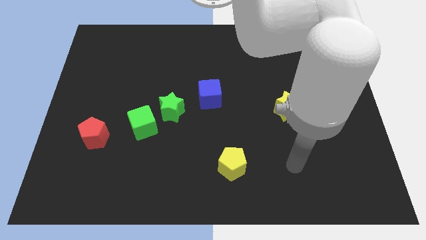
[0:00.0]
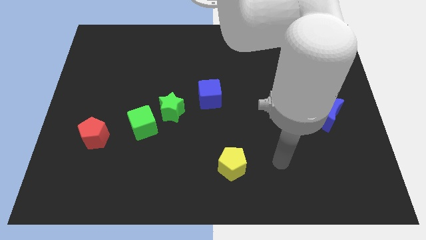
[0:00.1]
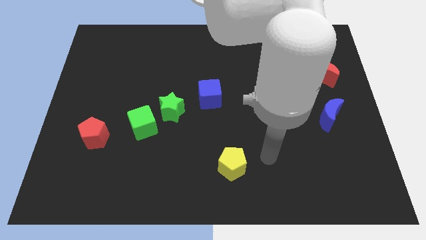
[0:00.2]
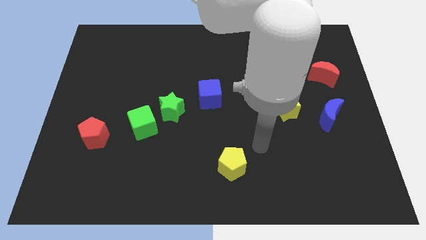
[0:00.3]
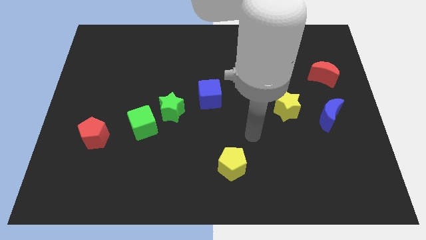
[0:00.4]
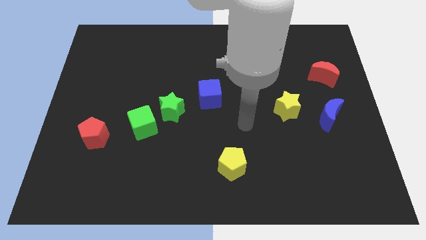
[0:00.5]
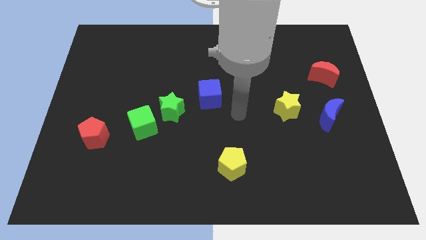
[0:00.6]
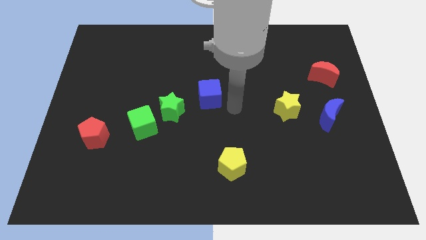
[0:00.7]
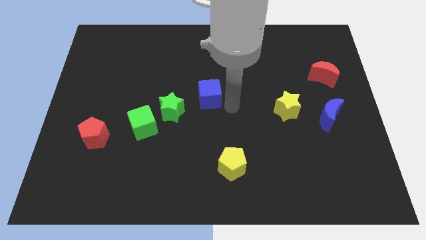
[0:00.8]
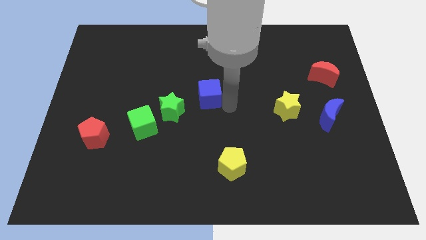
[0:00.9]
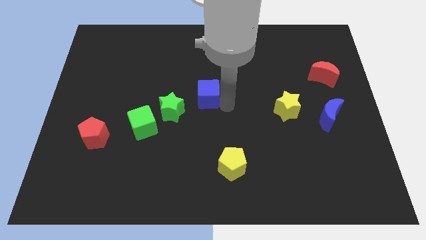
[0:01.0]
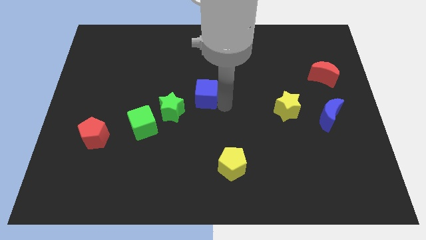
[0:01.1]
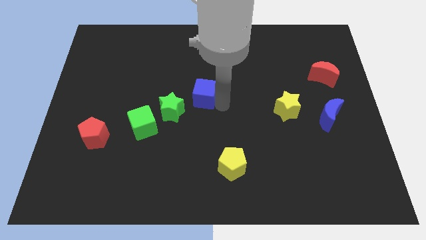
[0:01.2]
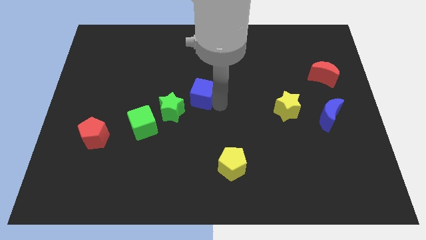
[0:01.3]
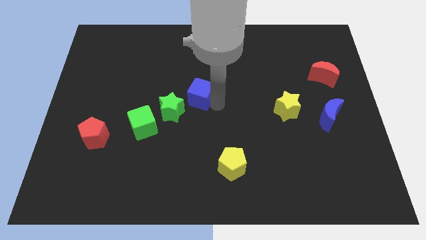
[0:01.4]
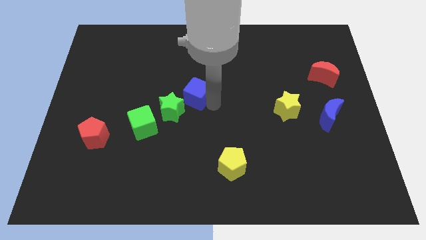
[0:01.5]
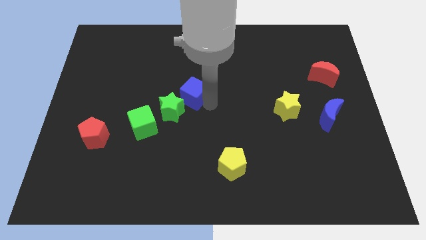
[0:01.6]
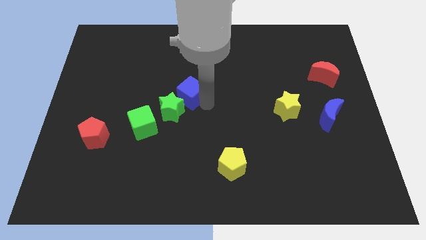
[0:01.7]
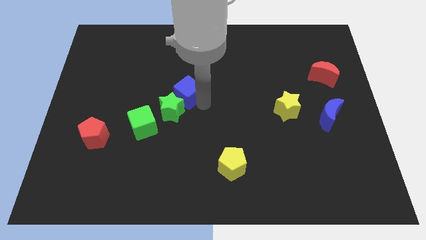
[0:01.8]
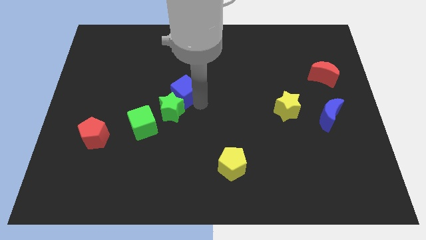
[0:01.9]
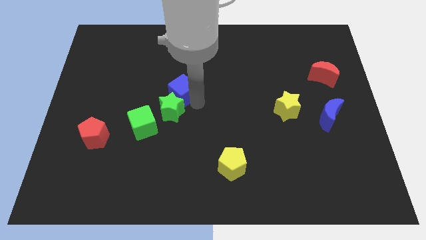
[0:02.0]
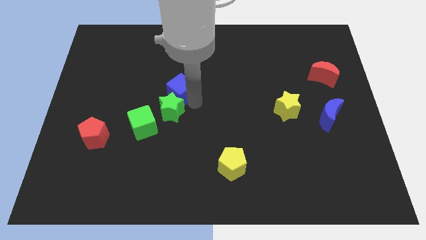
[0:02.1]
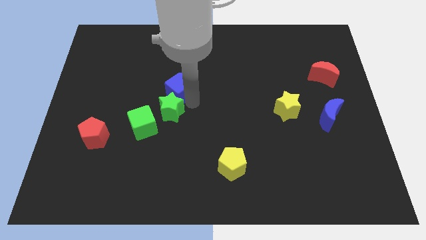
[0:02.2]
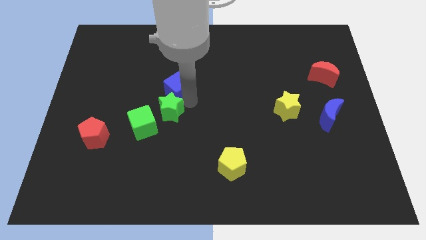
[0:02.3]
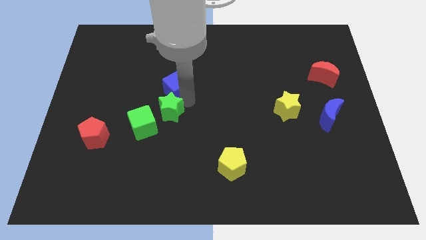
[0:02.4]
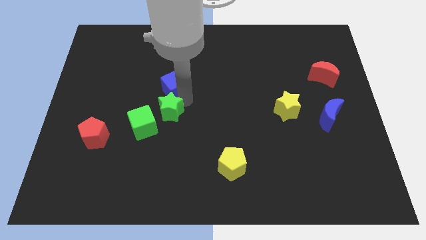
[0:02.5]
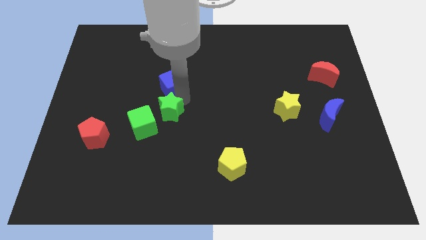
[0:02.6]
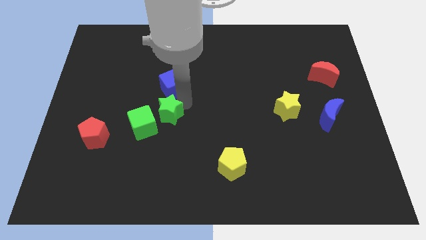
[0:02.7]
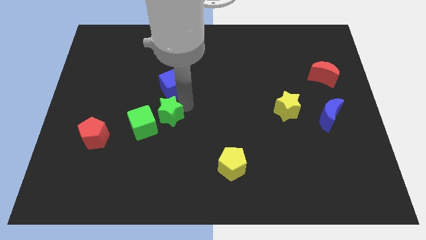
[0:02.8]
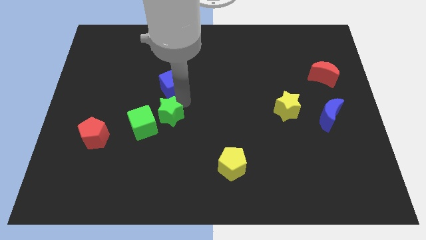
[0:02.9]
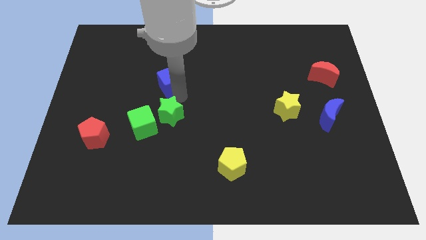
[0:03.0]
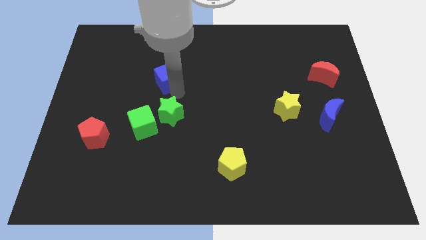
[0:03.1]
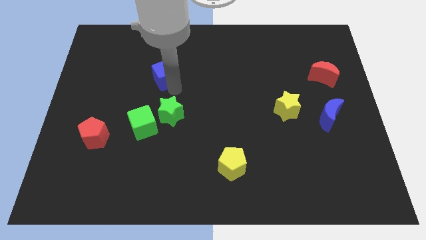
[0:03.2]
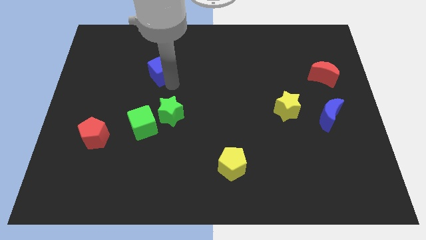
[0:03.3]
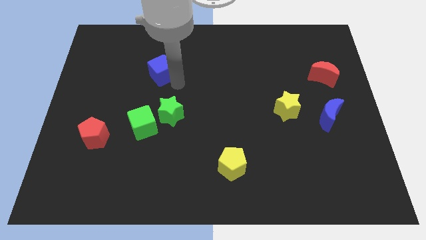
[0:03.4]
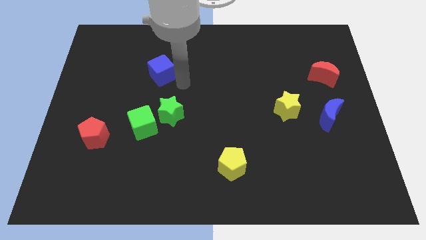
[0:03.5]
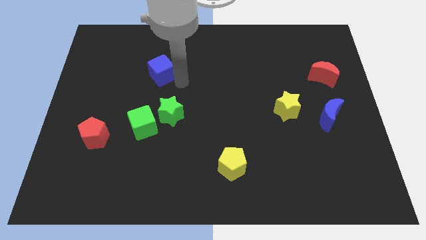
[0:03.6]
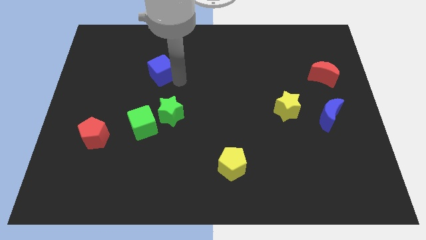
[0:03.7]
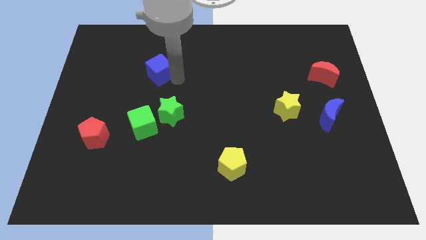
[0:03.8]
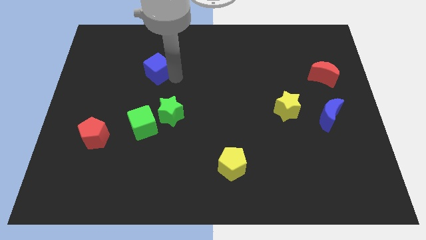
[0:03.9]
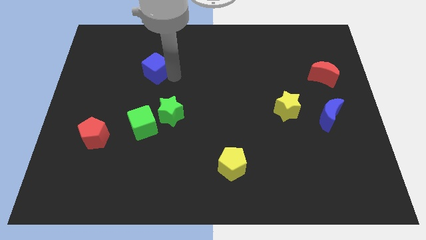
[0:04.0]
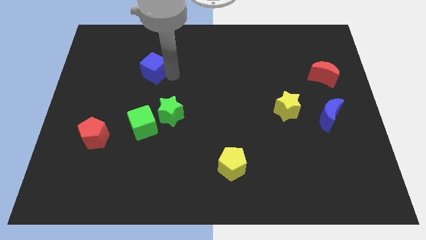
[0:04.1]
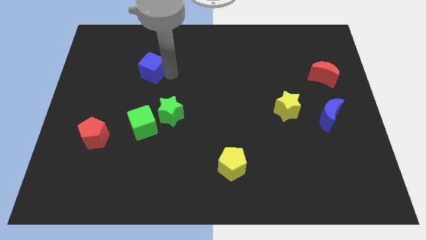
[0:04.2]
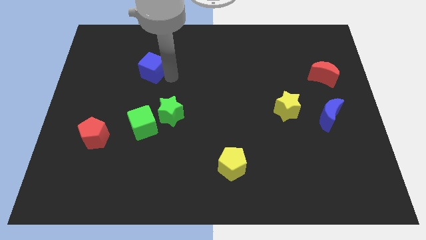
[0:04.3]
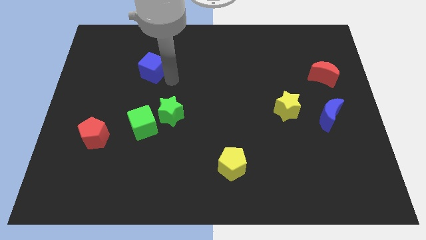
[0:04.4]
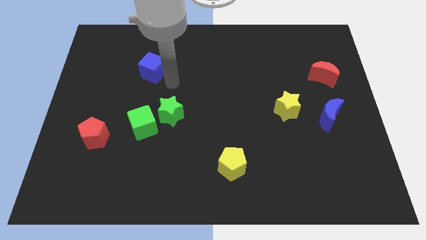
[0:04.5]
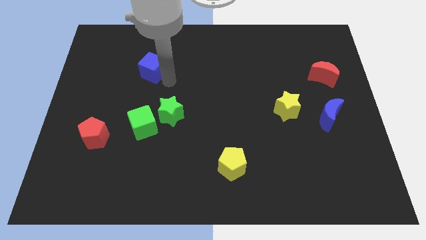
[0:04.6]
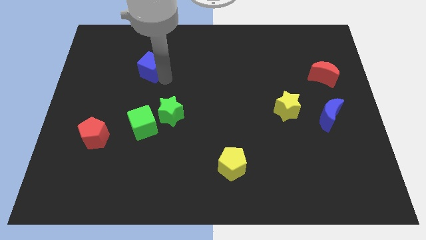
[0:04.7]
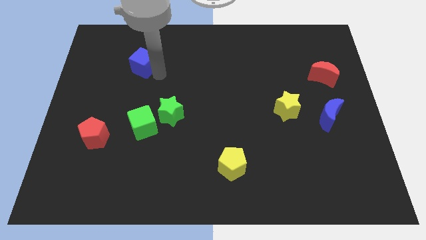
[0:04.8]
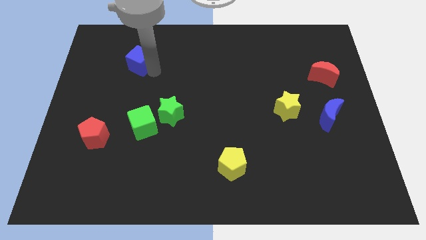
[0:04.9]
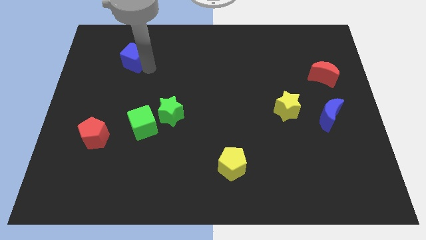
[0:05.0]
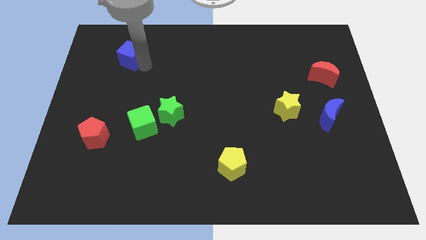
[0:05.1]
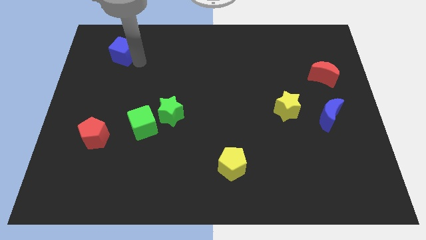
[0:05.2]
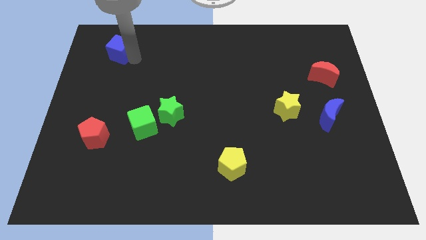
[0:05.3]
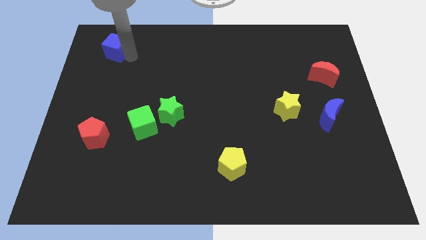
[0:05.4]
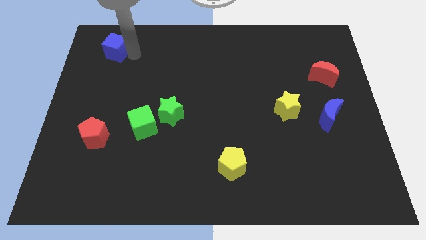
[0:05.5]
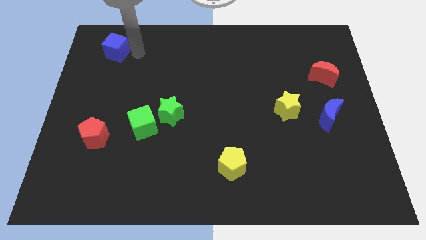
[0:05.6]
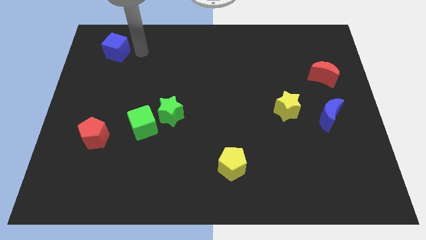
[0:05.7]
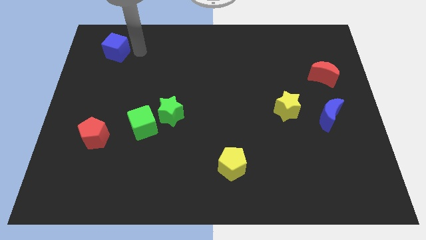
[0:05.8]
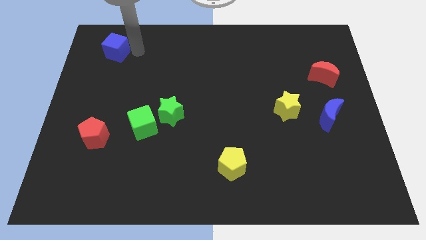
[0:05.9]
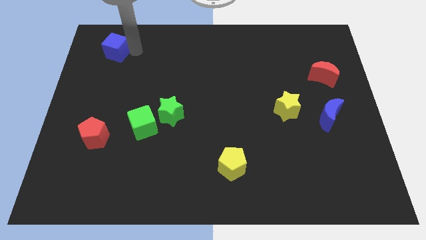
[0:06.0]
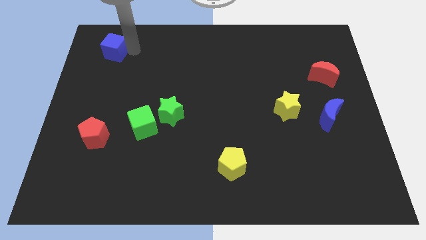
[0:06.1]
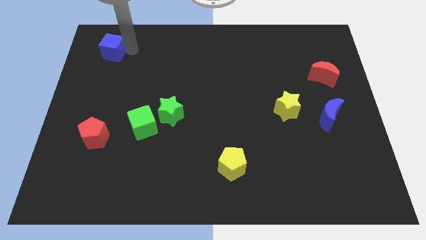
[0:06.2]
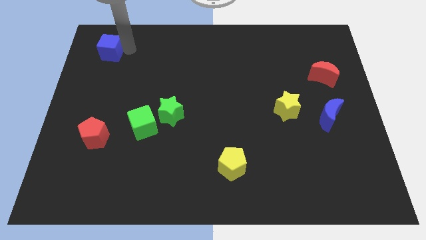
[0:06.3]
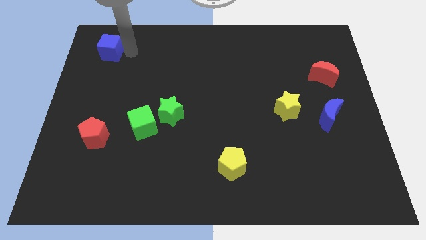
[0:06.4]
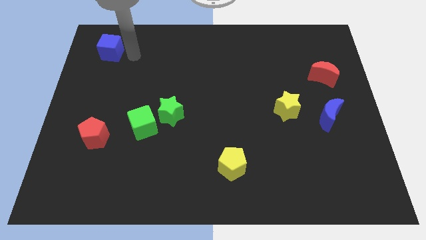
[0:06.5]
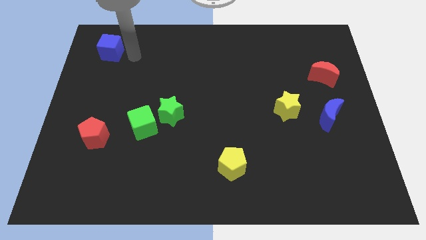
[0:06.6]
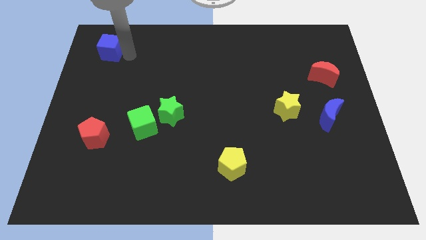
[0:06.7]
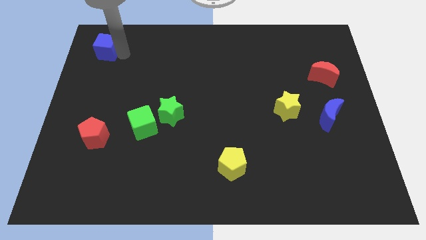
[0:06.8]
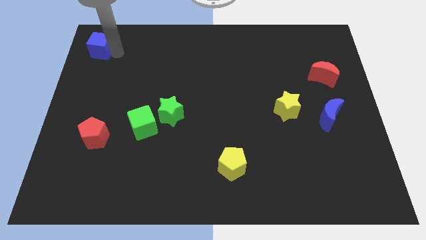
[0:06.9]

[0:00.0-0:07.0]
move the blue cube to the top left corner
